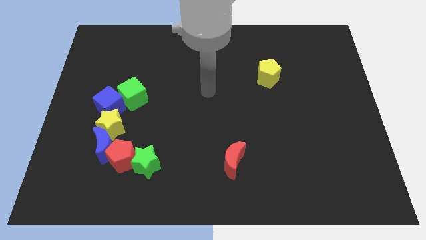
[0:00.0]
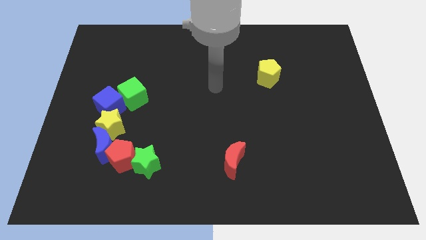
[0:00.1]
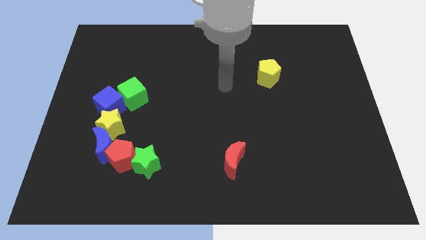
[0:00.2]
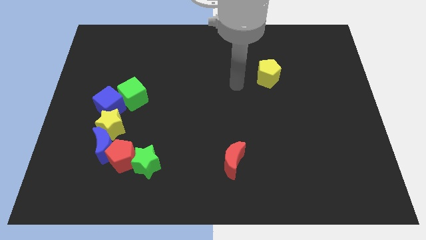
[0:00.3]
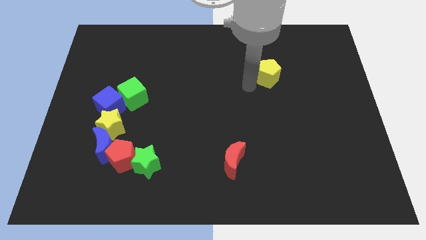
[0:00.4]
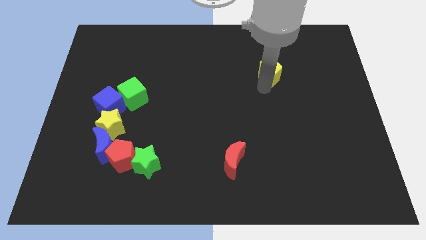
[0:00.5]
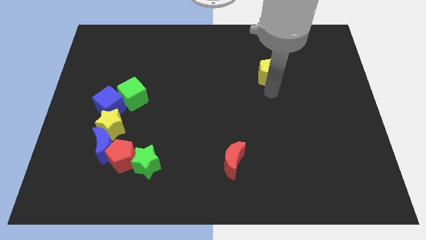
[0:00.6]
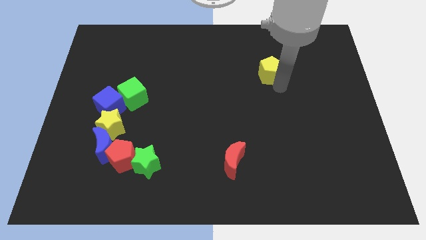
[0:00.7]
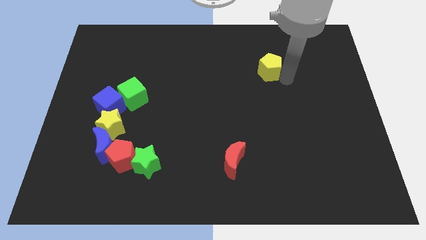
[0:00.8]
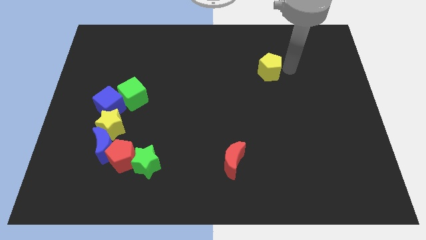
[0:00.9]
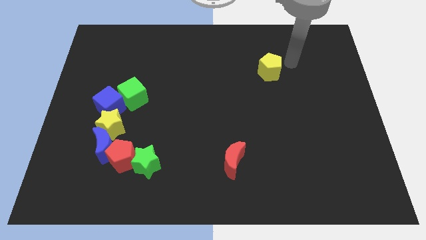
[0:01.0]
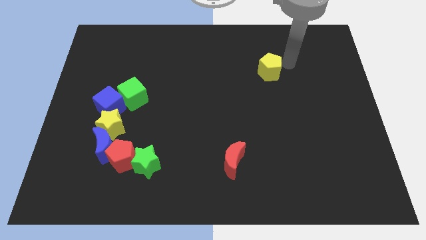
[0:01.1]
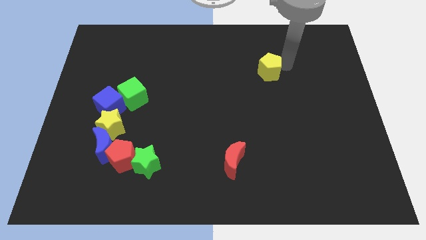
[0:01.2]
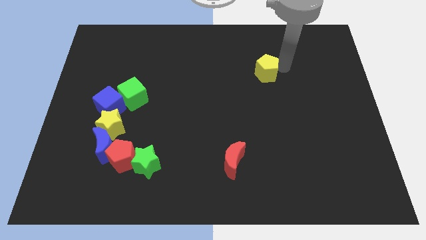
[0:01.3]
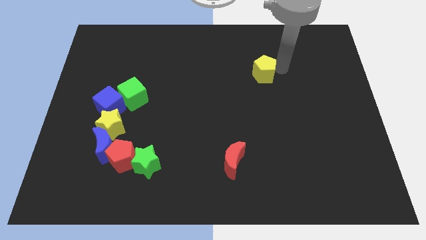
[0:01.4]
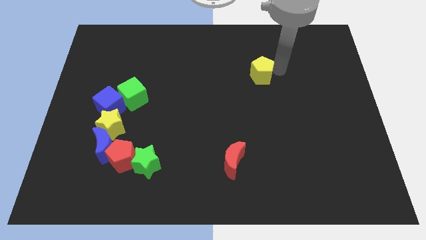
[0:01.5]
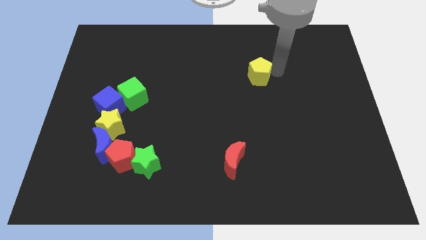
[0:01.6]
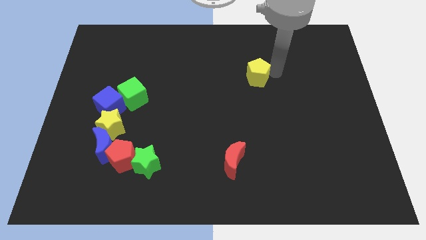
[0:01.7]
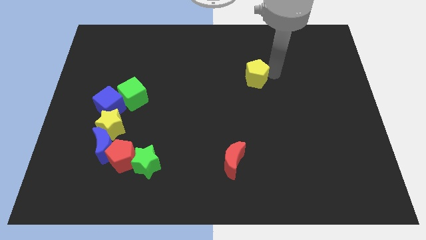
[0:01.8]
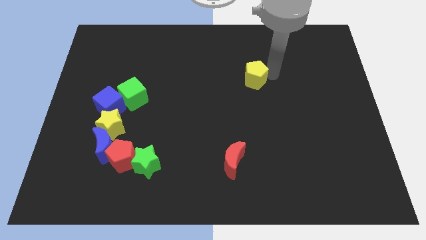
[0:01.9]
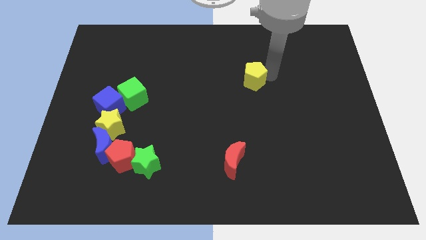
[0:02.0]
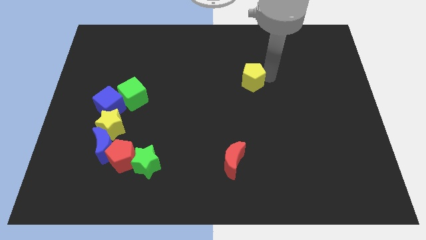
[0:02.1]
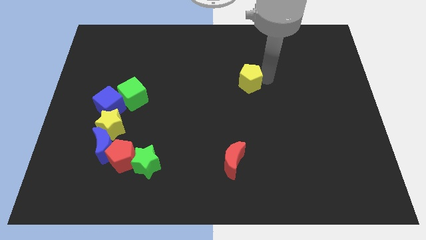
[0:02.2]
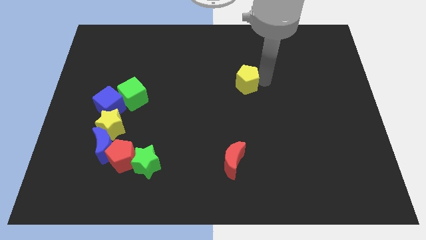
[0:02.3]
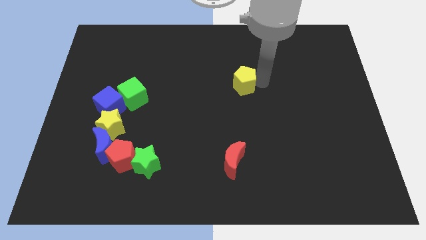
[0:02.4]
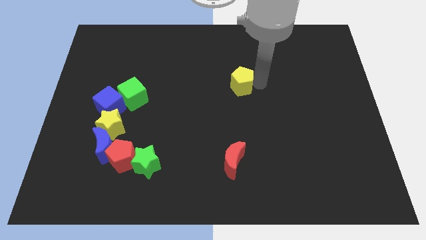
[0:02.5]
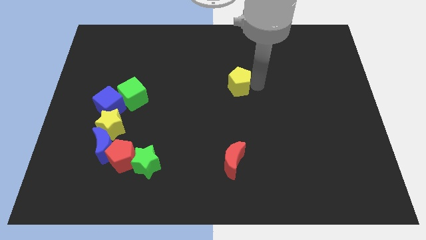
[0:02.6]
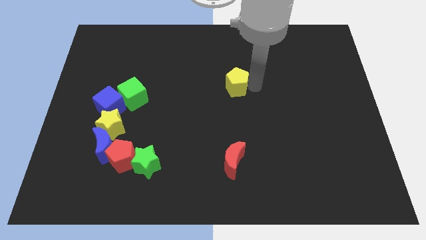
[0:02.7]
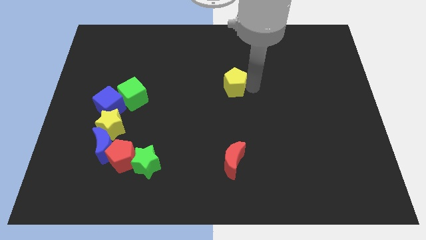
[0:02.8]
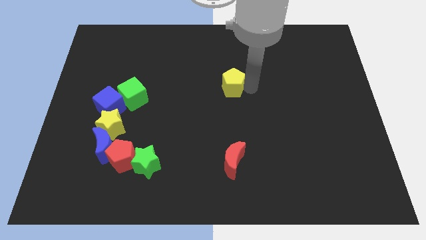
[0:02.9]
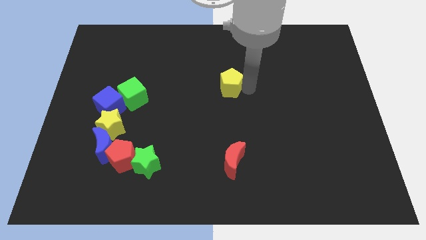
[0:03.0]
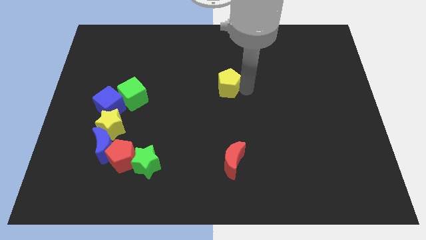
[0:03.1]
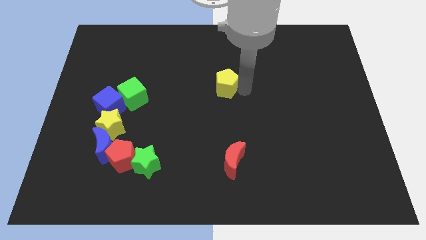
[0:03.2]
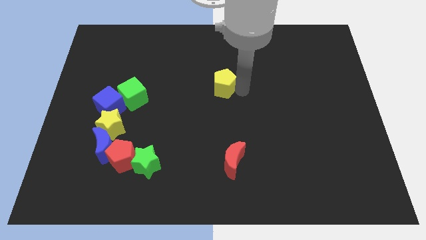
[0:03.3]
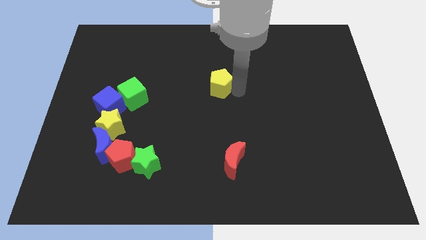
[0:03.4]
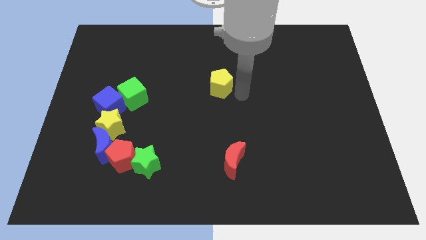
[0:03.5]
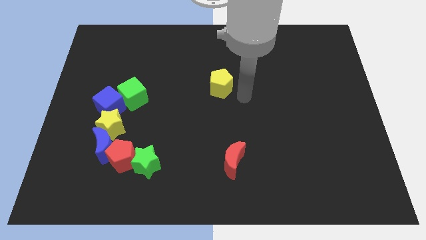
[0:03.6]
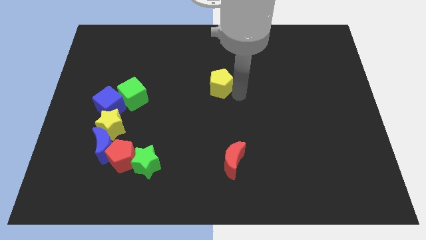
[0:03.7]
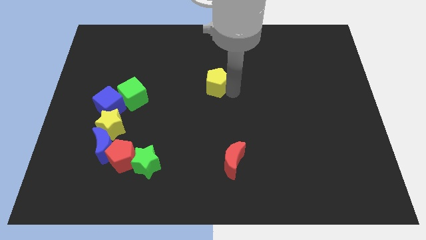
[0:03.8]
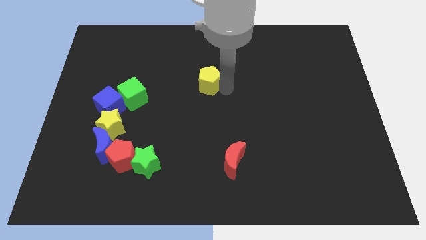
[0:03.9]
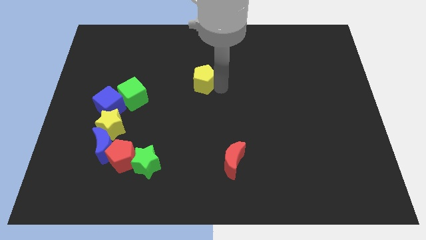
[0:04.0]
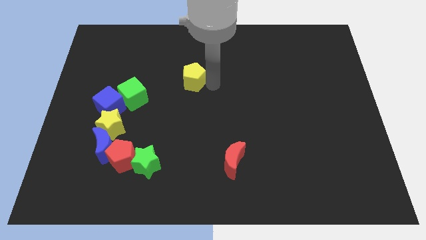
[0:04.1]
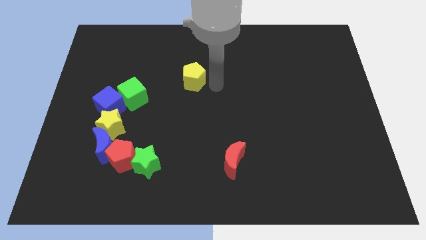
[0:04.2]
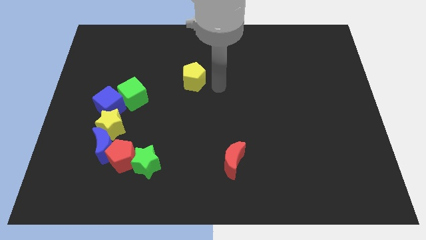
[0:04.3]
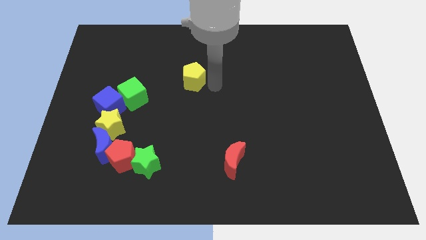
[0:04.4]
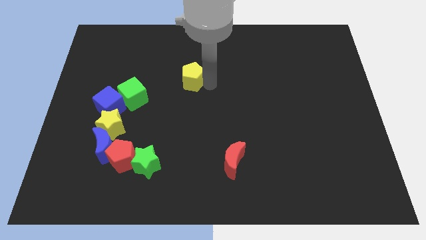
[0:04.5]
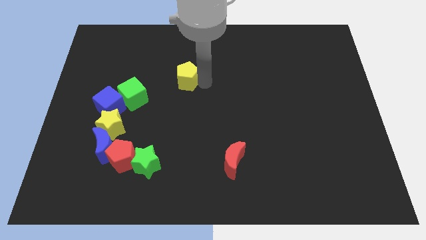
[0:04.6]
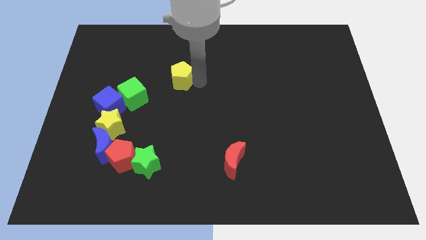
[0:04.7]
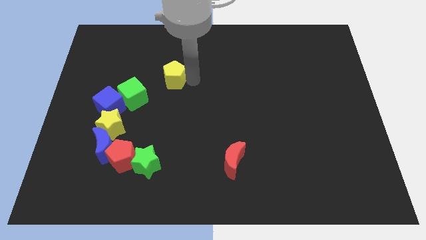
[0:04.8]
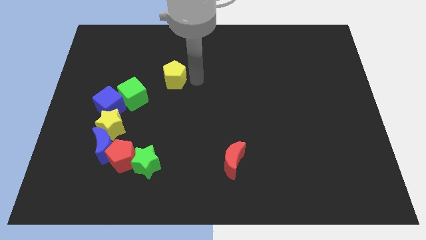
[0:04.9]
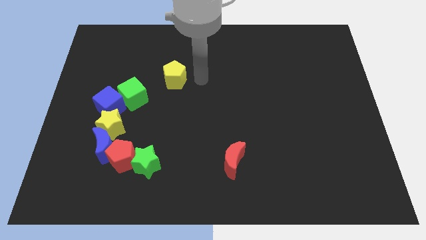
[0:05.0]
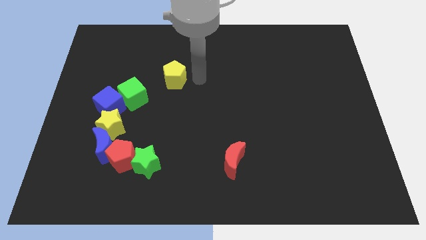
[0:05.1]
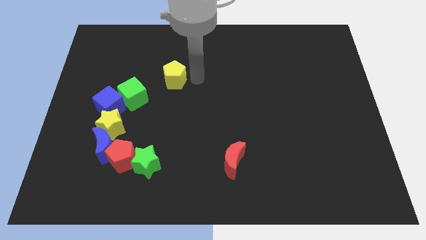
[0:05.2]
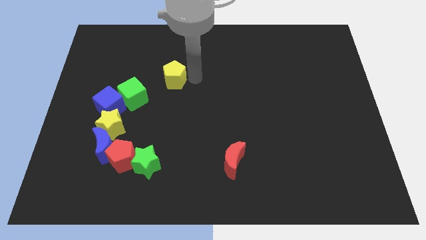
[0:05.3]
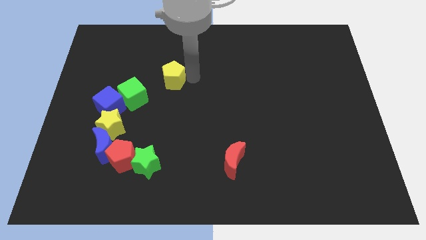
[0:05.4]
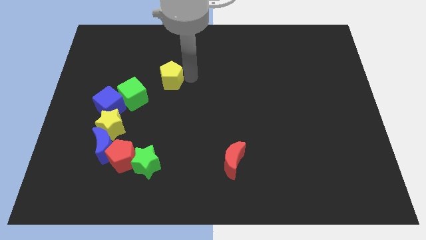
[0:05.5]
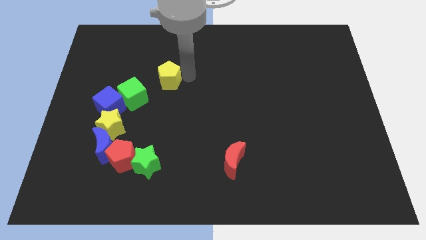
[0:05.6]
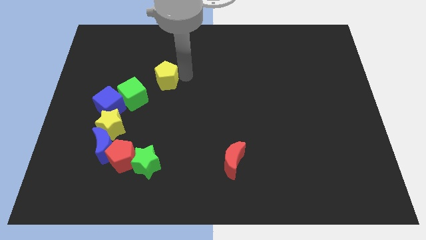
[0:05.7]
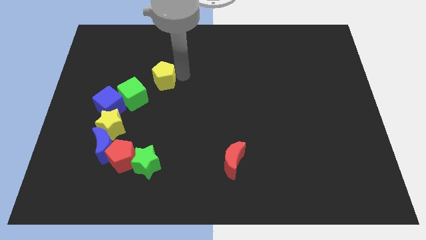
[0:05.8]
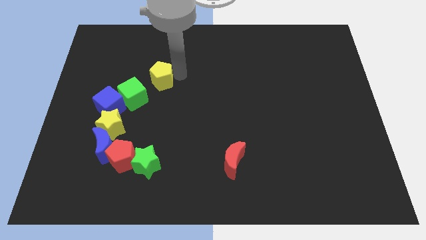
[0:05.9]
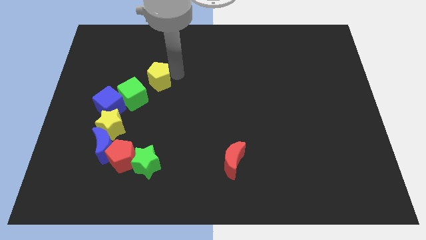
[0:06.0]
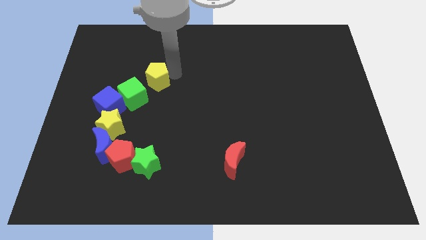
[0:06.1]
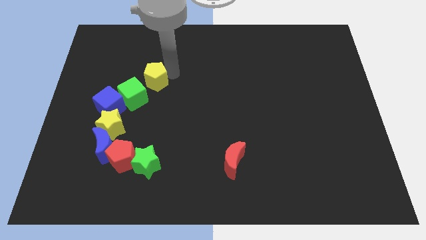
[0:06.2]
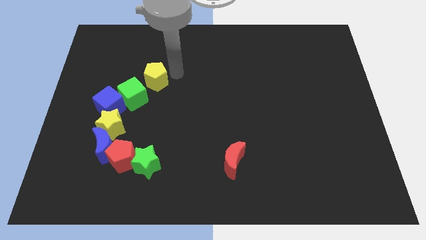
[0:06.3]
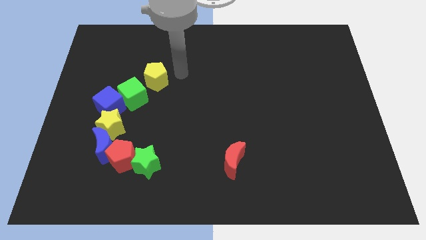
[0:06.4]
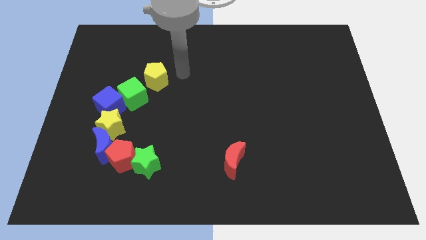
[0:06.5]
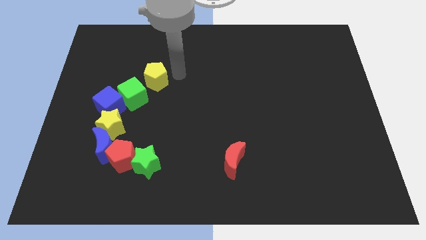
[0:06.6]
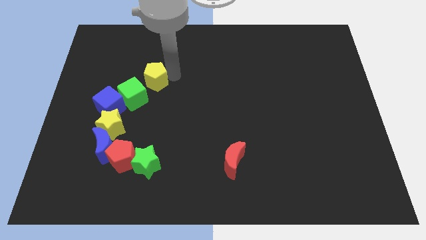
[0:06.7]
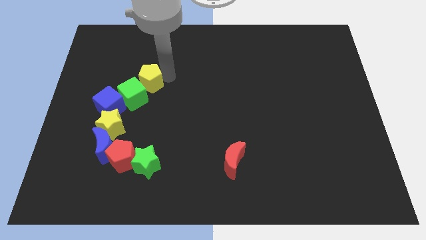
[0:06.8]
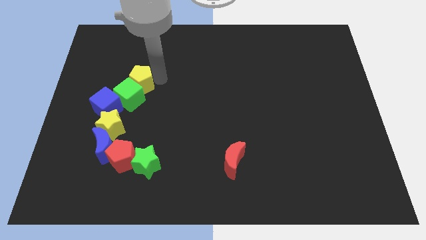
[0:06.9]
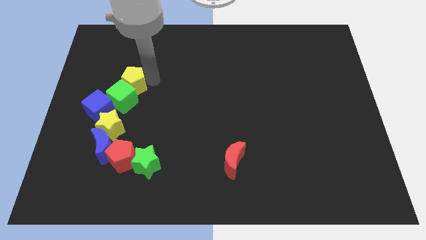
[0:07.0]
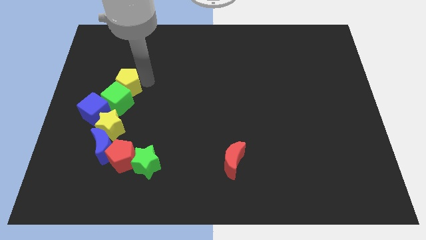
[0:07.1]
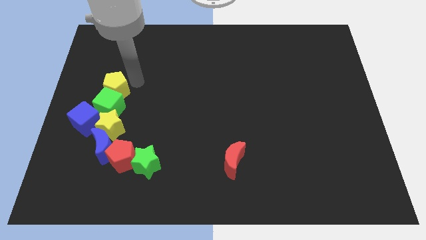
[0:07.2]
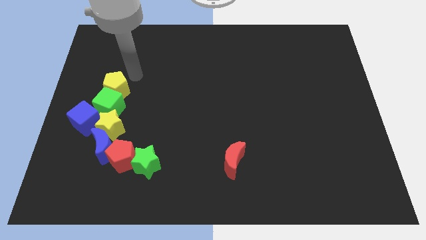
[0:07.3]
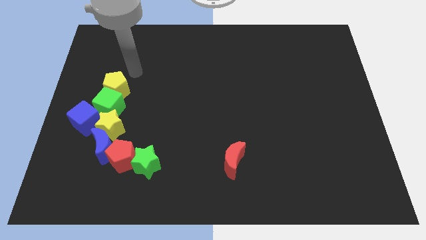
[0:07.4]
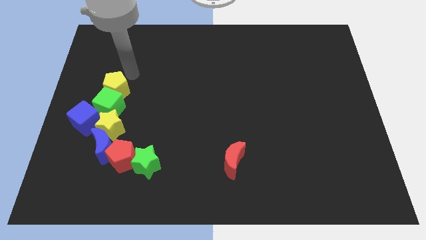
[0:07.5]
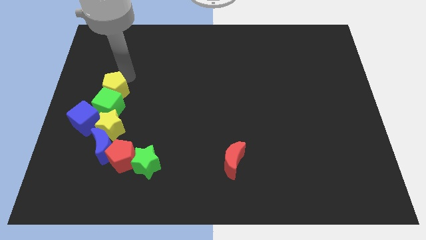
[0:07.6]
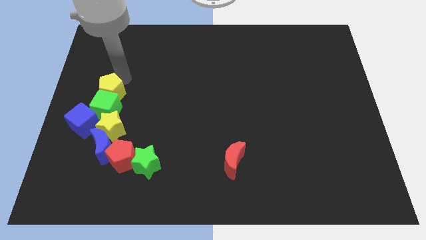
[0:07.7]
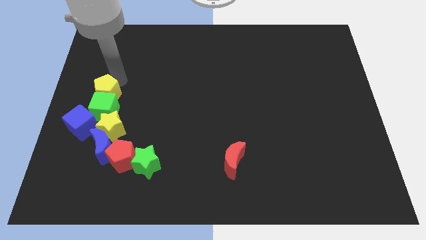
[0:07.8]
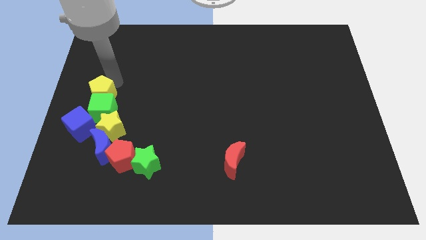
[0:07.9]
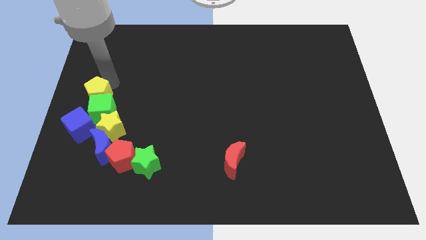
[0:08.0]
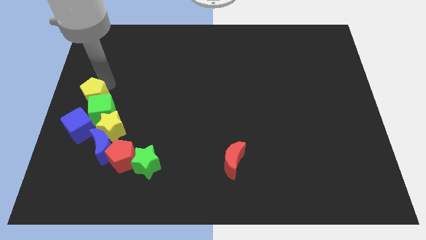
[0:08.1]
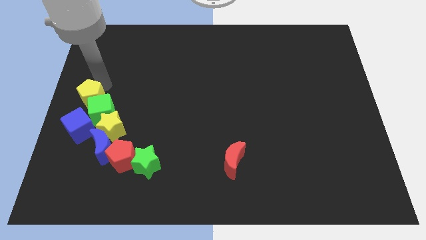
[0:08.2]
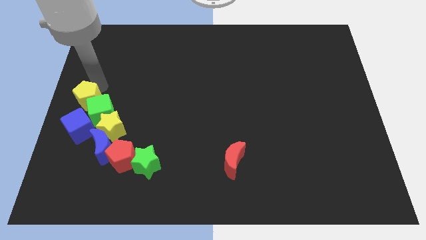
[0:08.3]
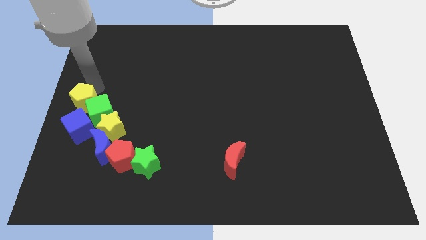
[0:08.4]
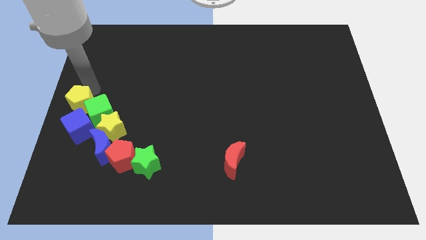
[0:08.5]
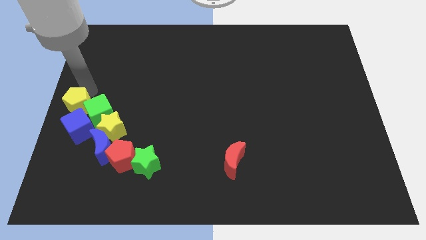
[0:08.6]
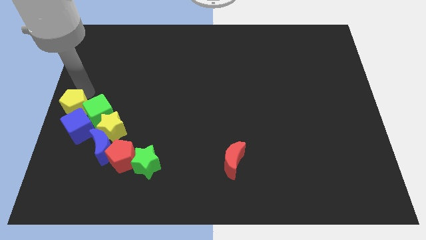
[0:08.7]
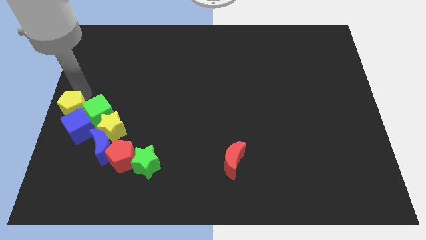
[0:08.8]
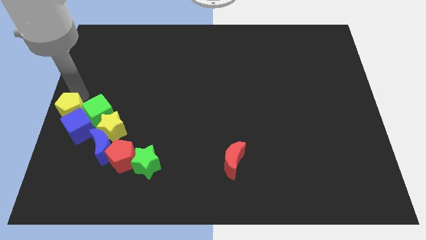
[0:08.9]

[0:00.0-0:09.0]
put the yellow pentagon towards the blue cube
